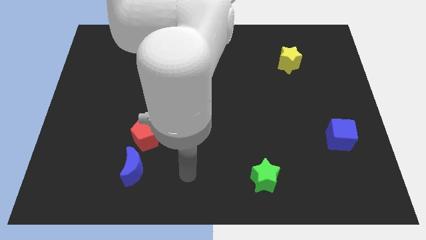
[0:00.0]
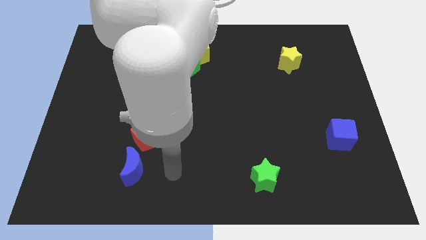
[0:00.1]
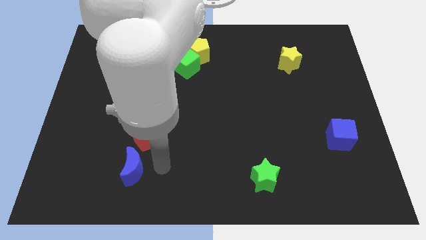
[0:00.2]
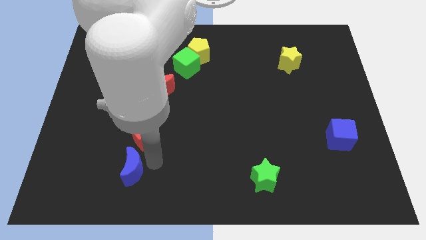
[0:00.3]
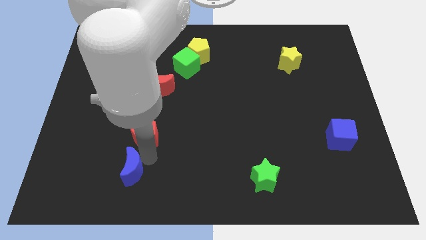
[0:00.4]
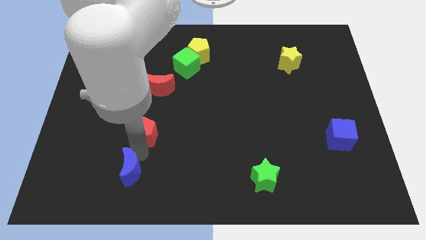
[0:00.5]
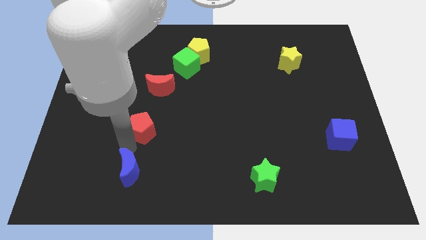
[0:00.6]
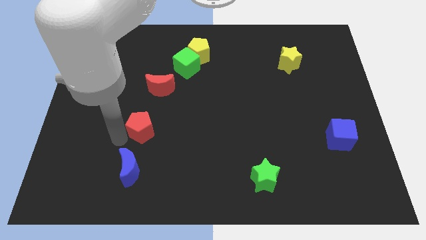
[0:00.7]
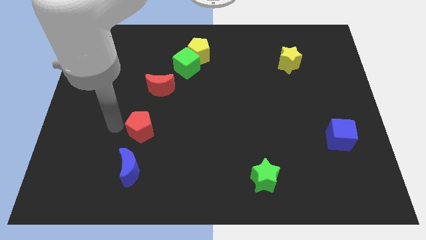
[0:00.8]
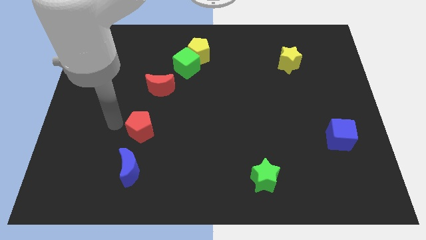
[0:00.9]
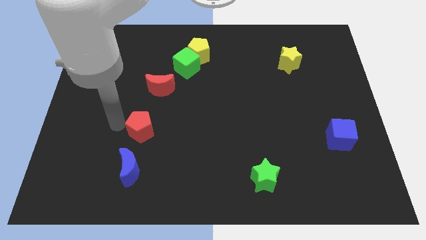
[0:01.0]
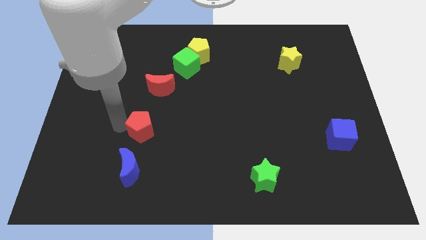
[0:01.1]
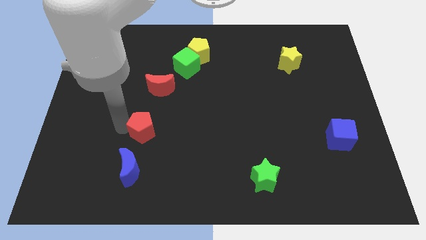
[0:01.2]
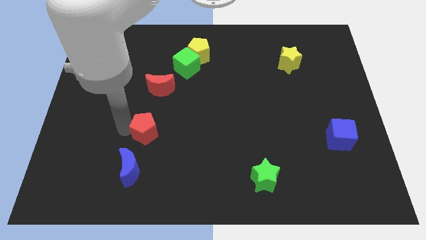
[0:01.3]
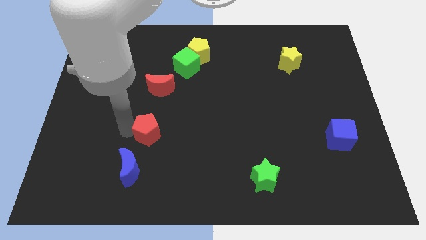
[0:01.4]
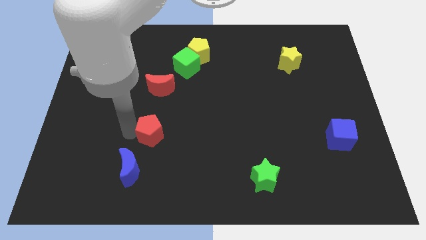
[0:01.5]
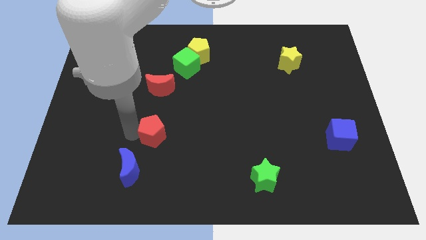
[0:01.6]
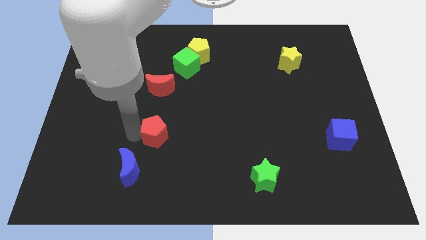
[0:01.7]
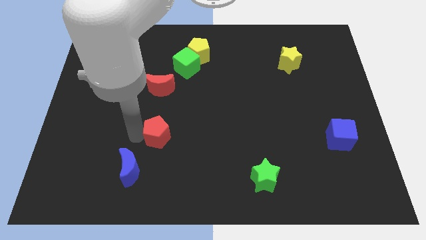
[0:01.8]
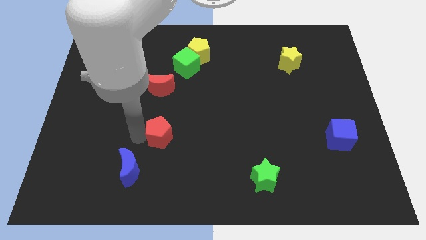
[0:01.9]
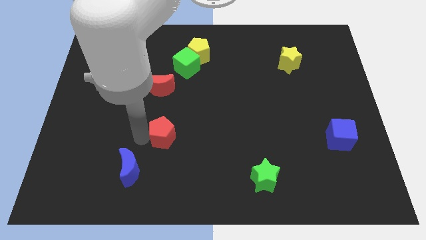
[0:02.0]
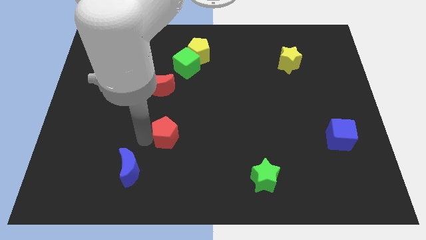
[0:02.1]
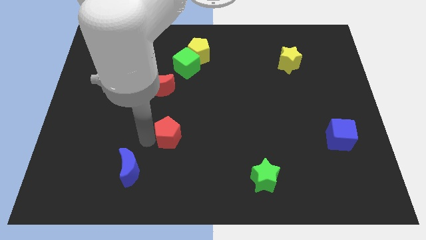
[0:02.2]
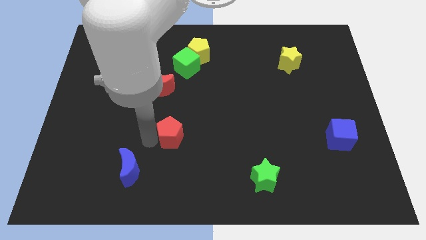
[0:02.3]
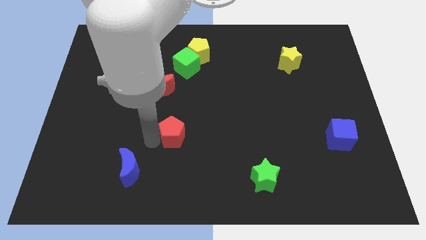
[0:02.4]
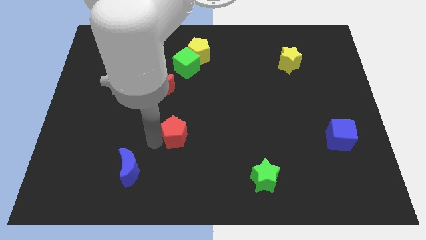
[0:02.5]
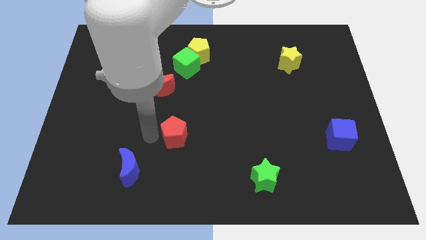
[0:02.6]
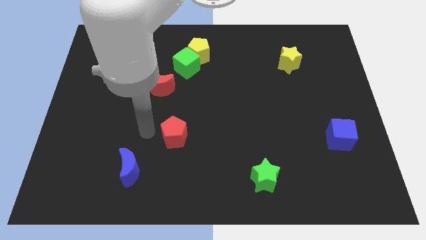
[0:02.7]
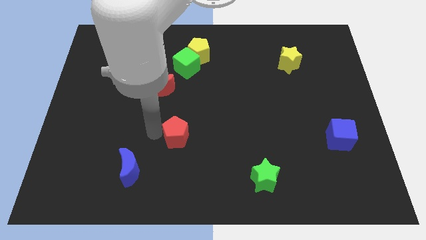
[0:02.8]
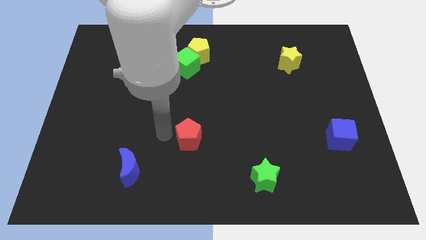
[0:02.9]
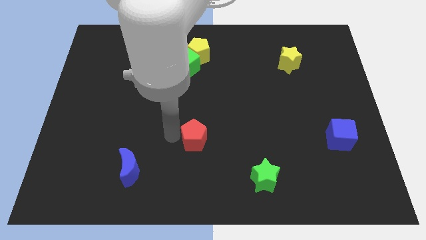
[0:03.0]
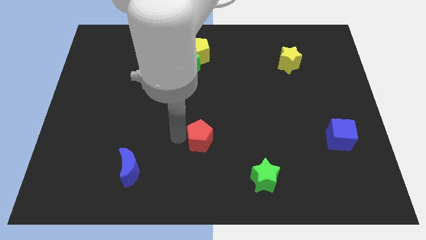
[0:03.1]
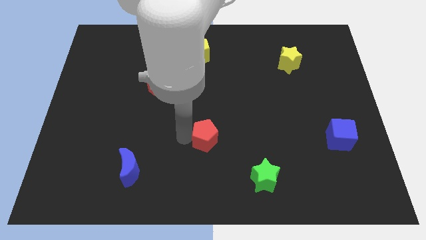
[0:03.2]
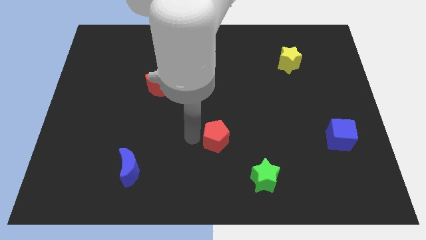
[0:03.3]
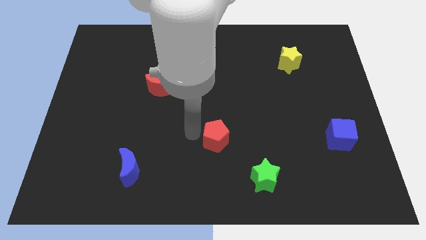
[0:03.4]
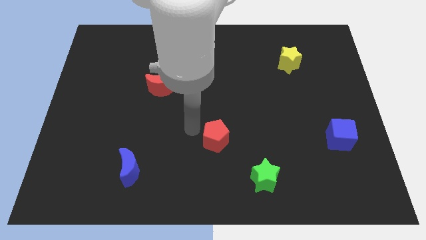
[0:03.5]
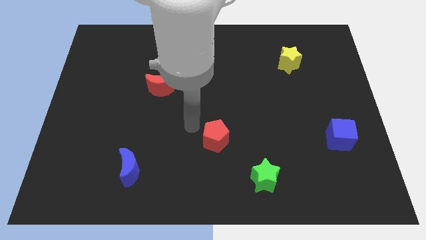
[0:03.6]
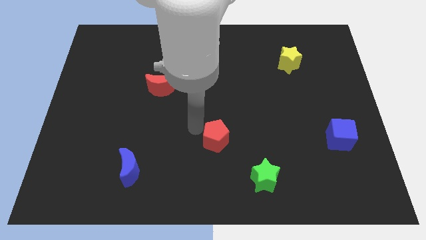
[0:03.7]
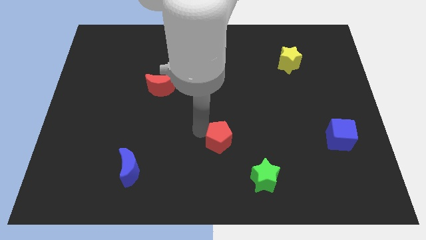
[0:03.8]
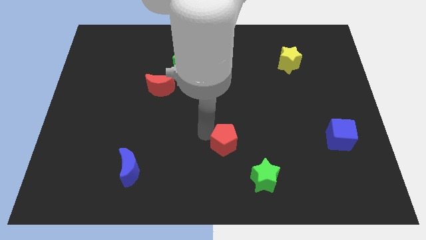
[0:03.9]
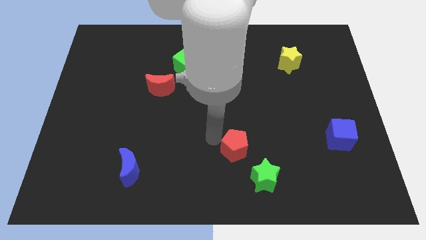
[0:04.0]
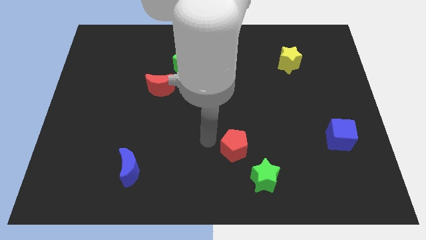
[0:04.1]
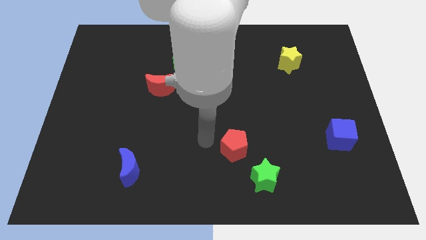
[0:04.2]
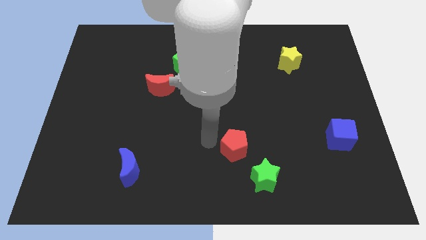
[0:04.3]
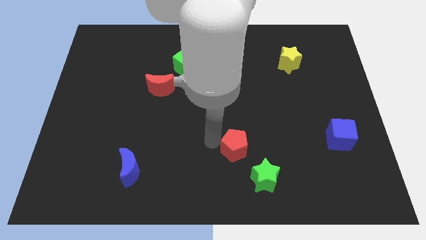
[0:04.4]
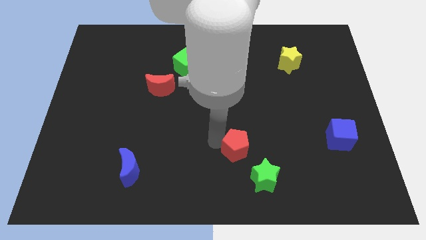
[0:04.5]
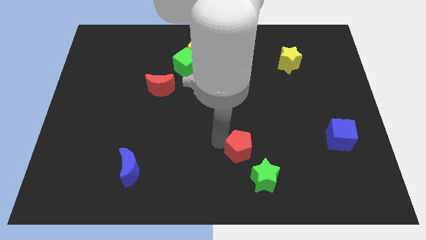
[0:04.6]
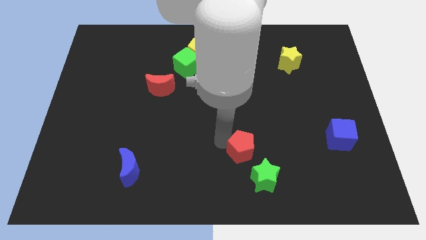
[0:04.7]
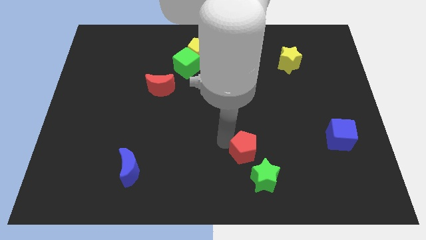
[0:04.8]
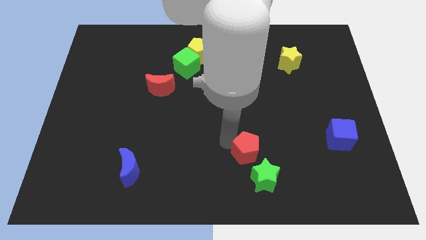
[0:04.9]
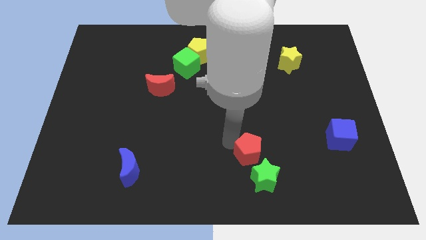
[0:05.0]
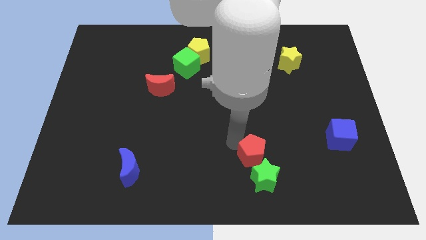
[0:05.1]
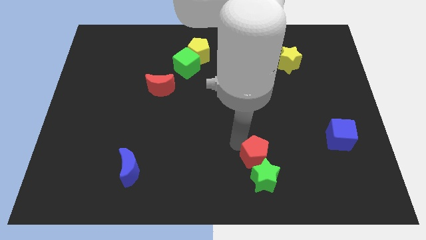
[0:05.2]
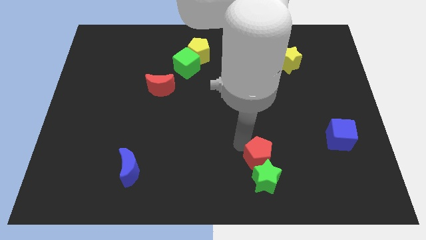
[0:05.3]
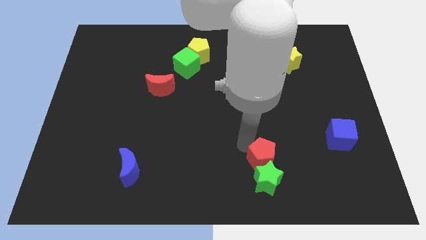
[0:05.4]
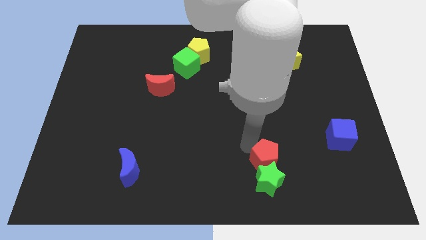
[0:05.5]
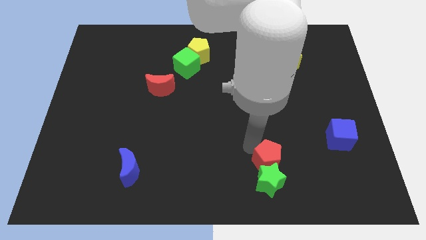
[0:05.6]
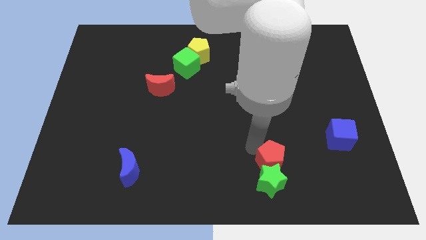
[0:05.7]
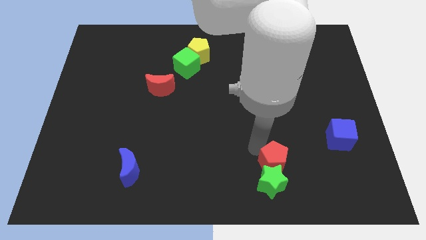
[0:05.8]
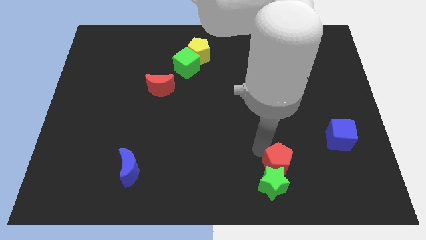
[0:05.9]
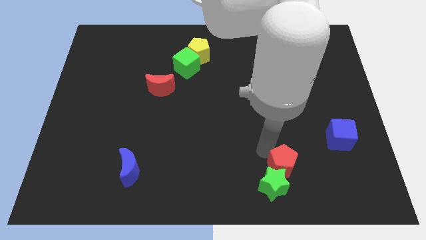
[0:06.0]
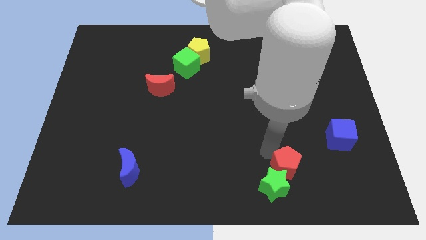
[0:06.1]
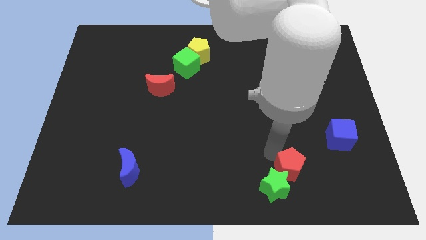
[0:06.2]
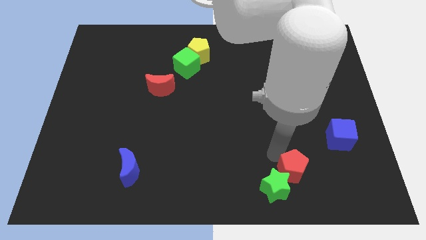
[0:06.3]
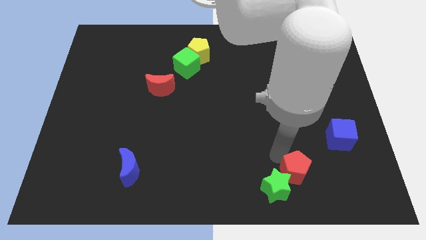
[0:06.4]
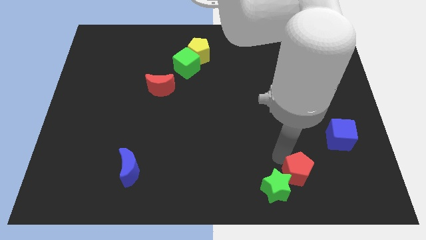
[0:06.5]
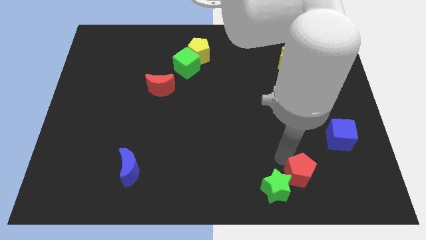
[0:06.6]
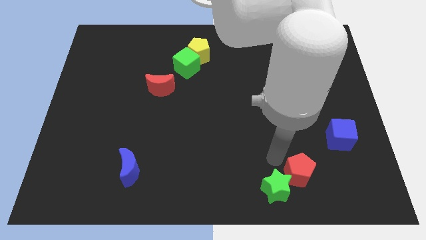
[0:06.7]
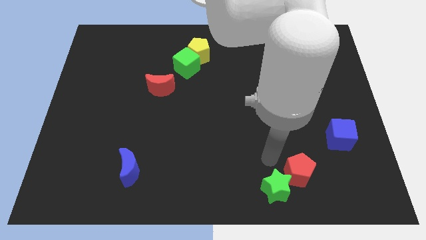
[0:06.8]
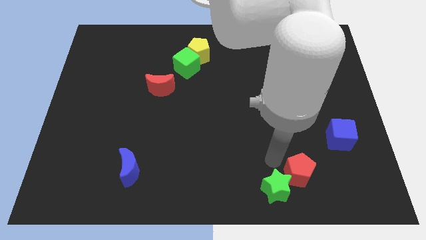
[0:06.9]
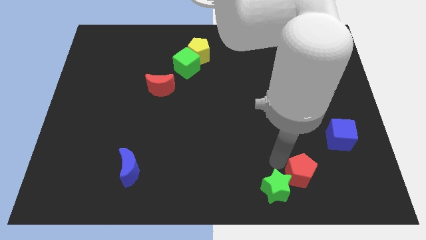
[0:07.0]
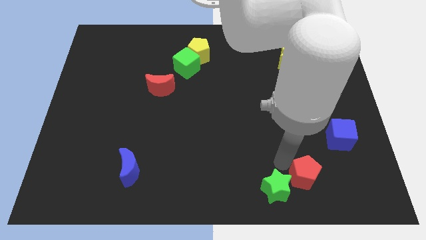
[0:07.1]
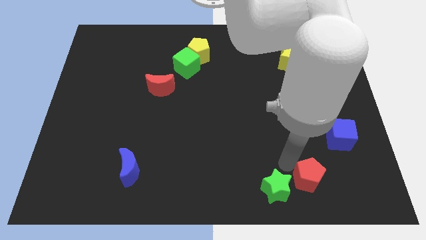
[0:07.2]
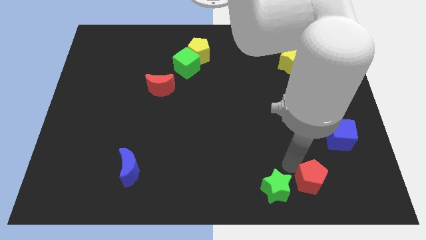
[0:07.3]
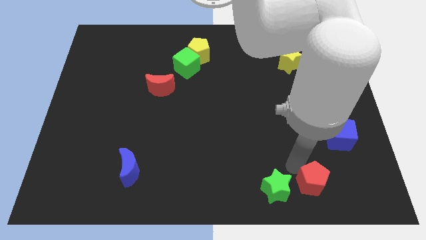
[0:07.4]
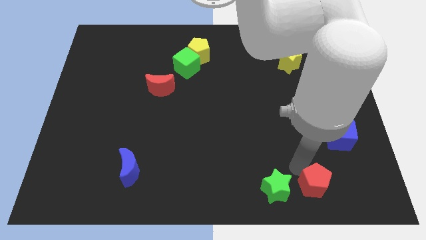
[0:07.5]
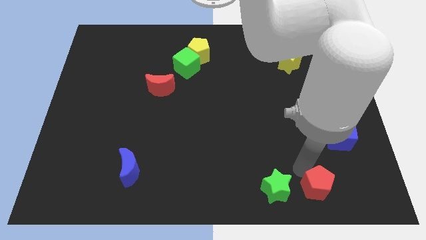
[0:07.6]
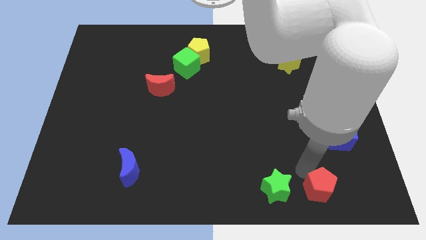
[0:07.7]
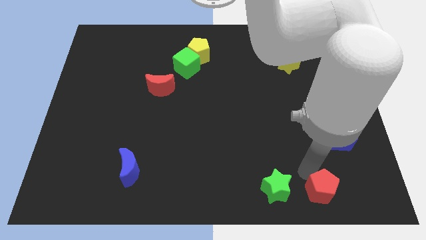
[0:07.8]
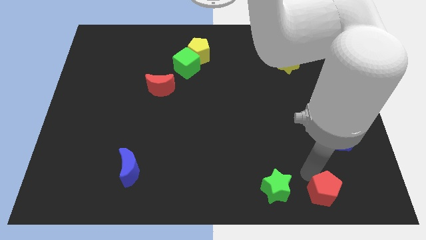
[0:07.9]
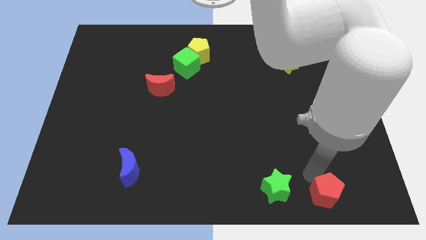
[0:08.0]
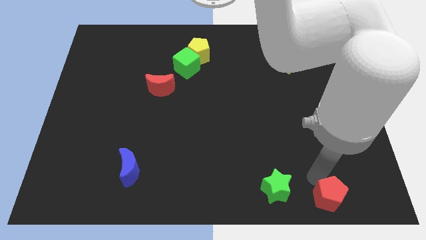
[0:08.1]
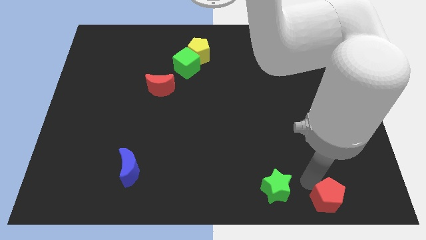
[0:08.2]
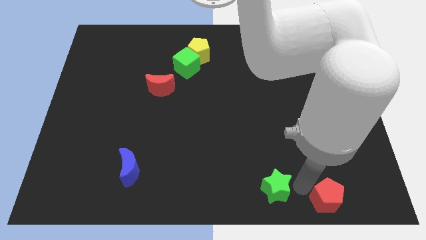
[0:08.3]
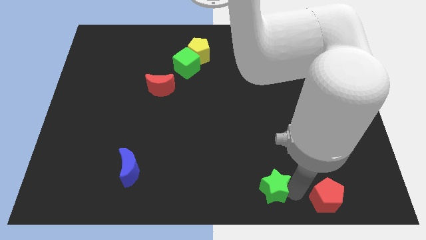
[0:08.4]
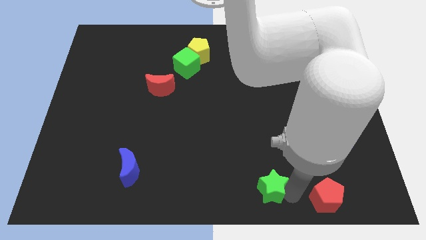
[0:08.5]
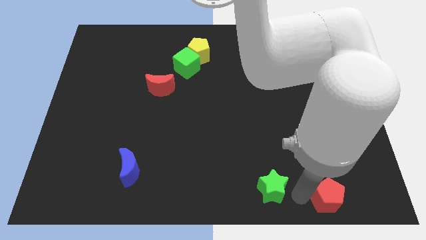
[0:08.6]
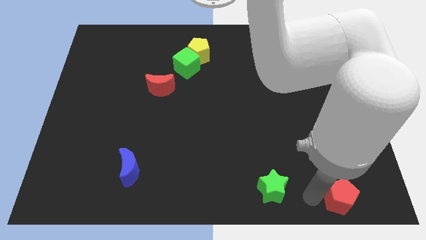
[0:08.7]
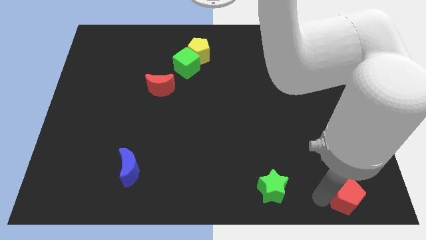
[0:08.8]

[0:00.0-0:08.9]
move the red pentagon to the bottom right corner
